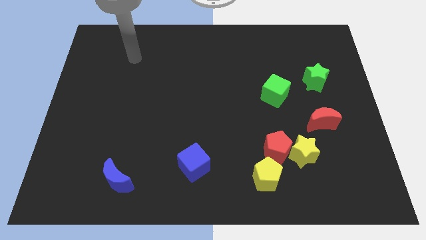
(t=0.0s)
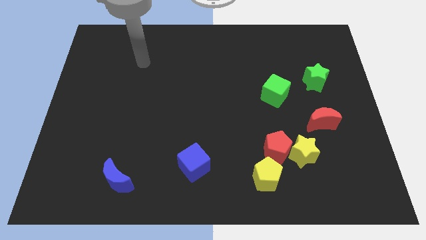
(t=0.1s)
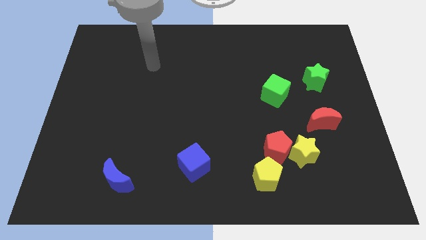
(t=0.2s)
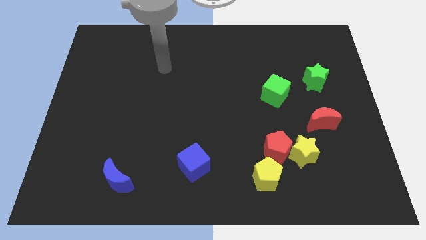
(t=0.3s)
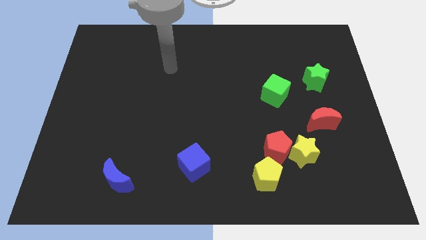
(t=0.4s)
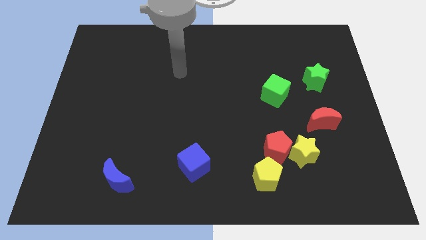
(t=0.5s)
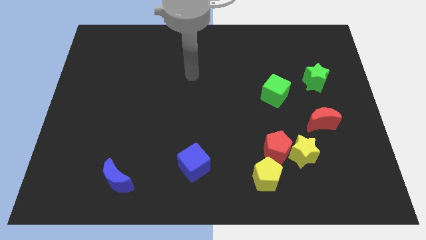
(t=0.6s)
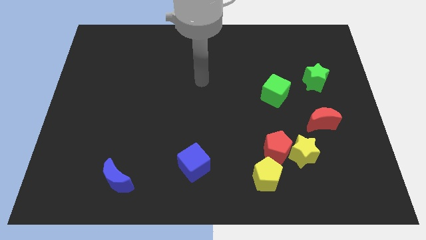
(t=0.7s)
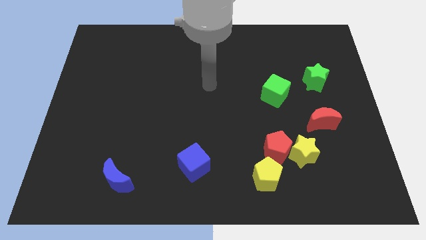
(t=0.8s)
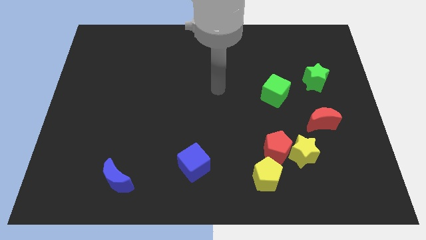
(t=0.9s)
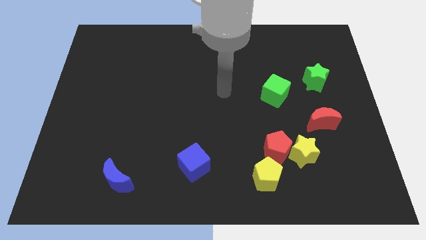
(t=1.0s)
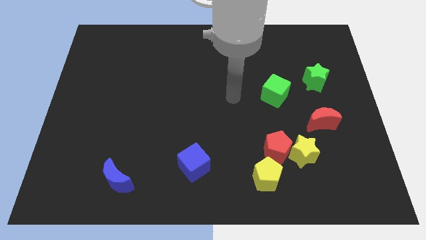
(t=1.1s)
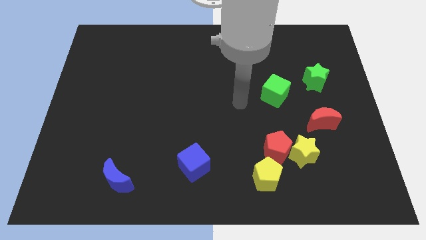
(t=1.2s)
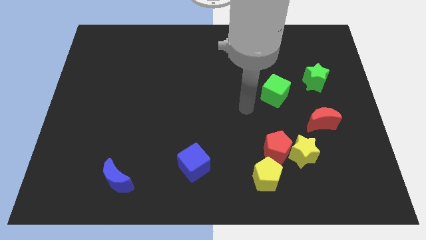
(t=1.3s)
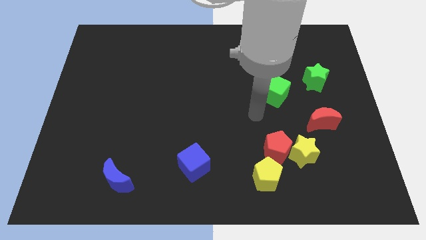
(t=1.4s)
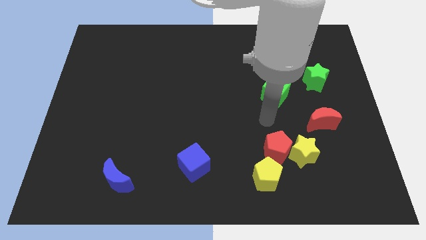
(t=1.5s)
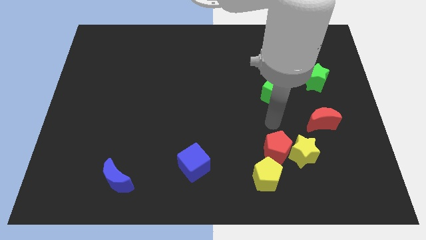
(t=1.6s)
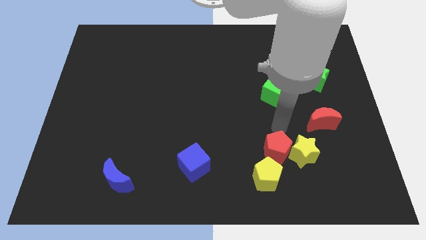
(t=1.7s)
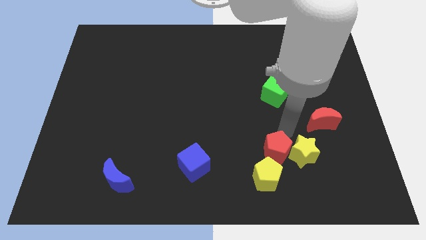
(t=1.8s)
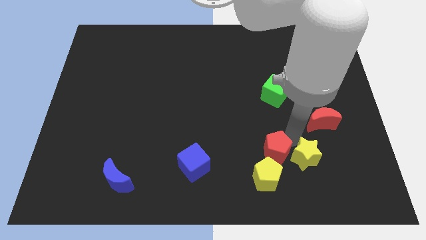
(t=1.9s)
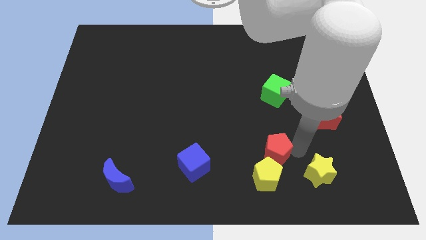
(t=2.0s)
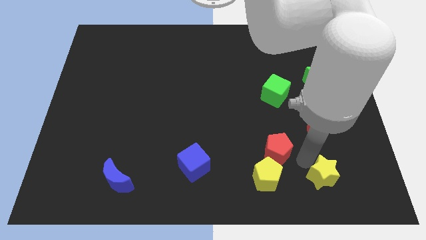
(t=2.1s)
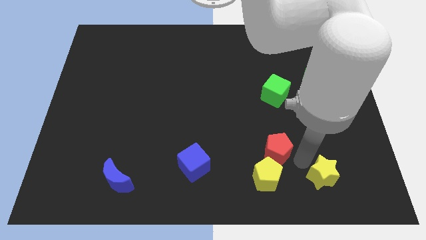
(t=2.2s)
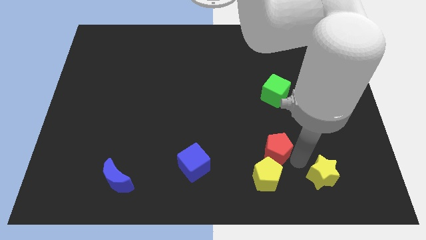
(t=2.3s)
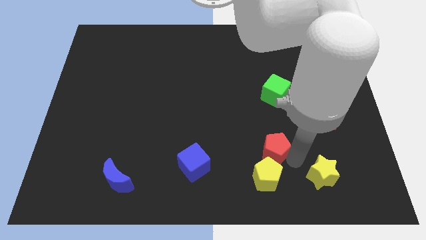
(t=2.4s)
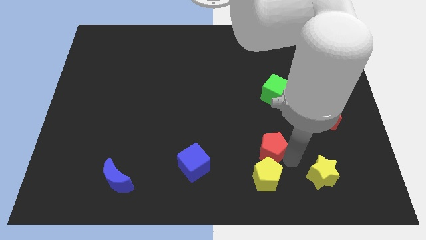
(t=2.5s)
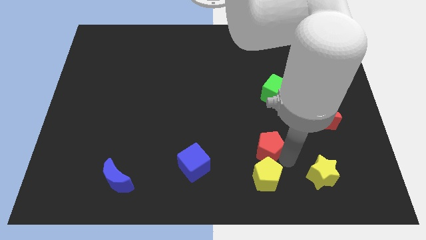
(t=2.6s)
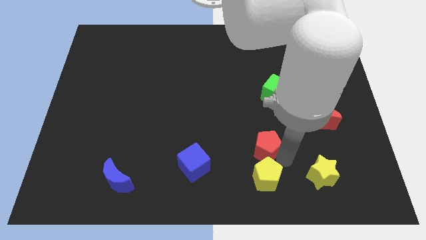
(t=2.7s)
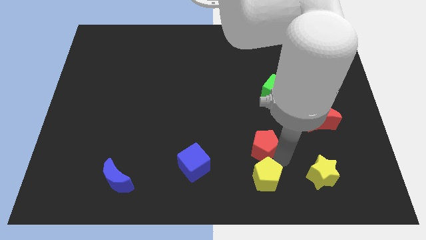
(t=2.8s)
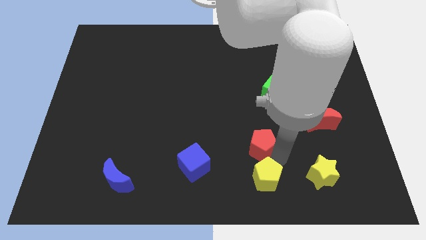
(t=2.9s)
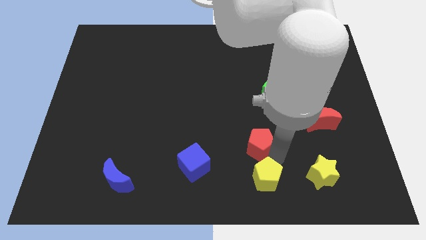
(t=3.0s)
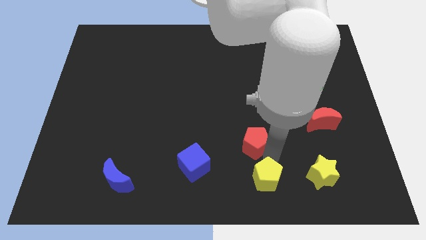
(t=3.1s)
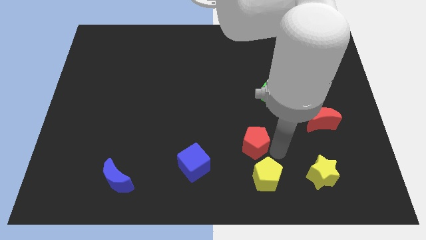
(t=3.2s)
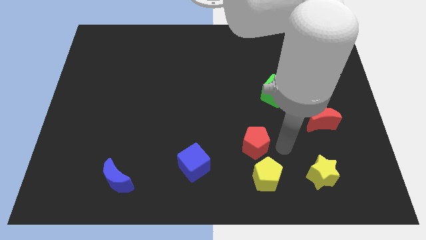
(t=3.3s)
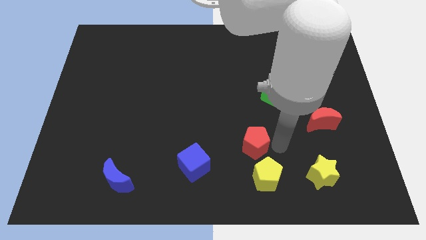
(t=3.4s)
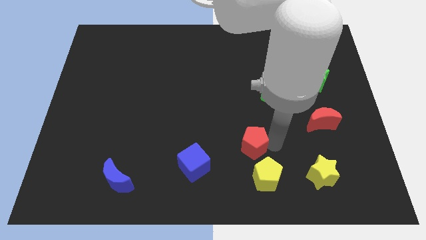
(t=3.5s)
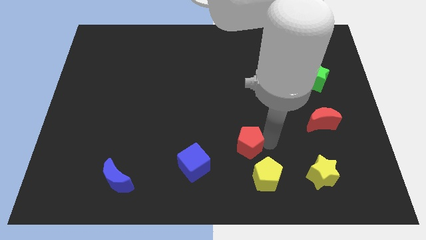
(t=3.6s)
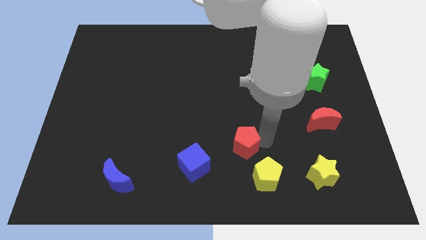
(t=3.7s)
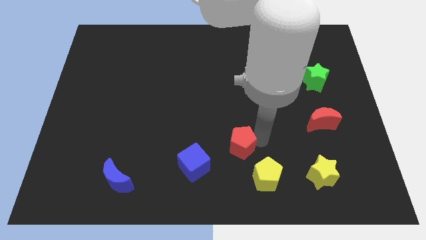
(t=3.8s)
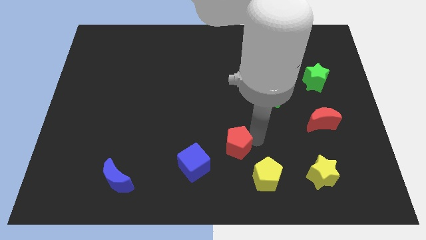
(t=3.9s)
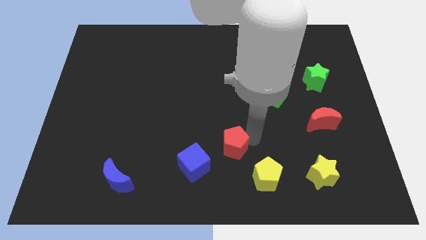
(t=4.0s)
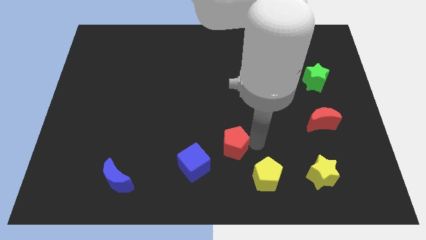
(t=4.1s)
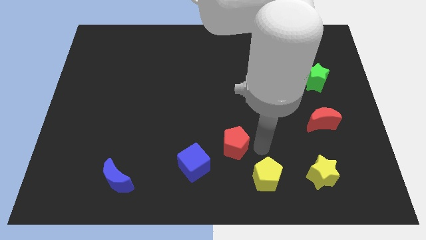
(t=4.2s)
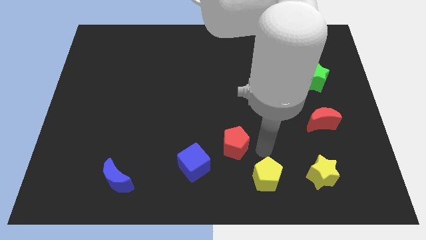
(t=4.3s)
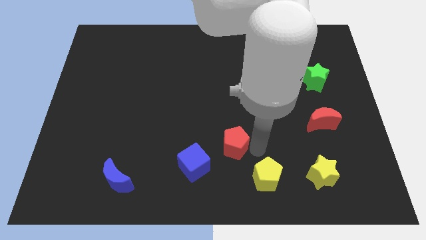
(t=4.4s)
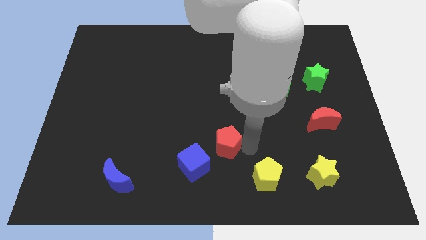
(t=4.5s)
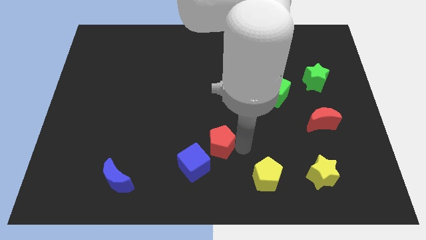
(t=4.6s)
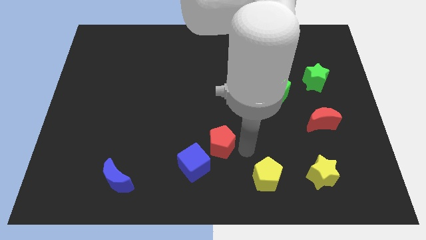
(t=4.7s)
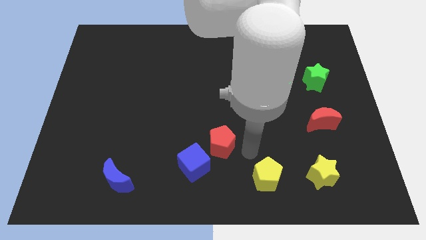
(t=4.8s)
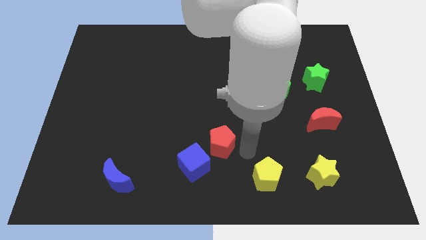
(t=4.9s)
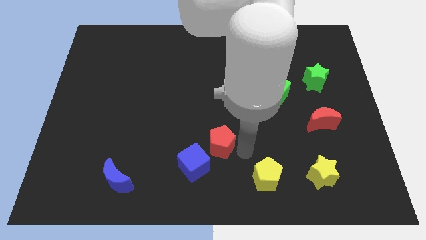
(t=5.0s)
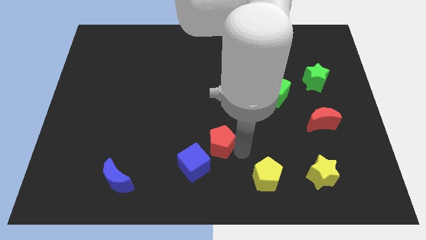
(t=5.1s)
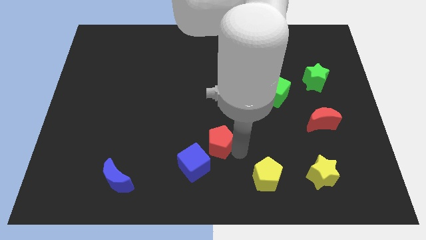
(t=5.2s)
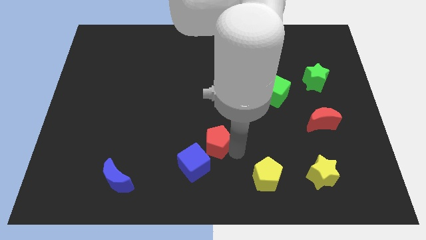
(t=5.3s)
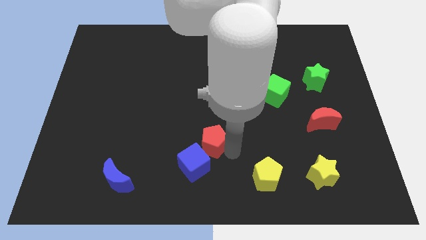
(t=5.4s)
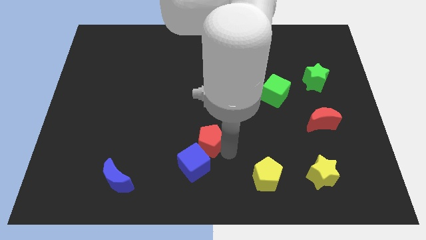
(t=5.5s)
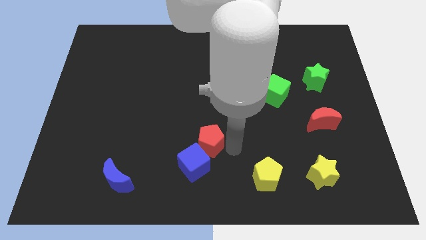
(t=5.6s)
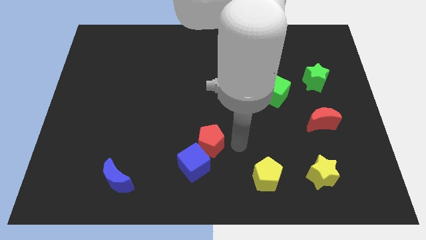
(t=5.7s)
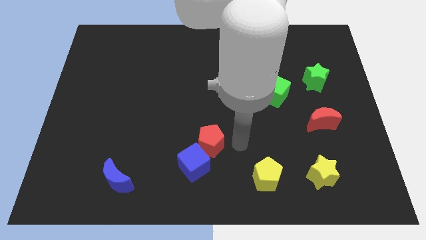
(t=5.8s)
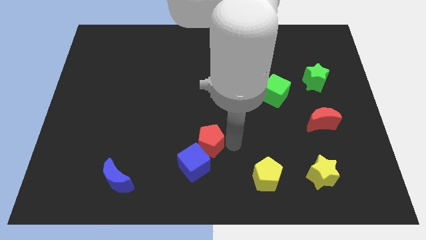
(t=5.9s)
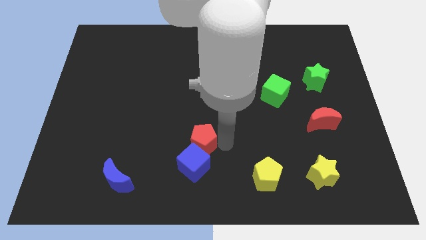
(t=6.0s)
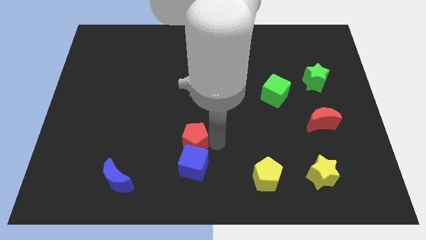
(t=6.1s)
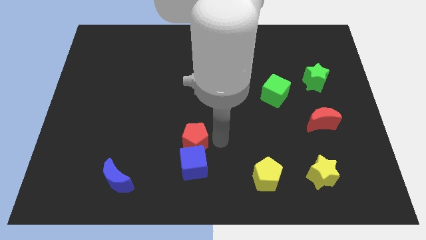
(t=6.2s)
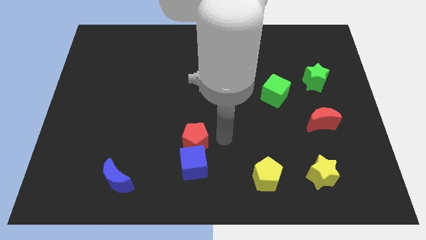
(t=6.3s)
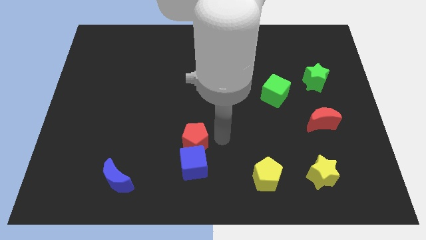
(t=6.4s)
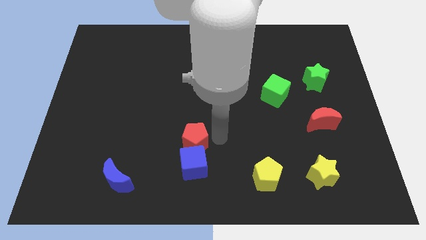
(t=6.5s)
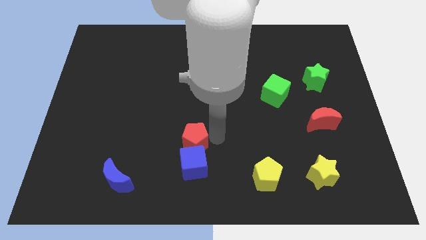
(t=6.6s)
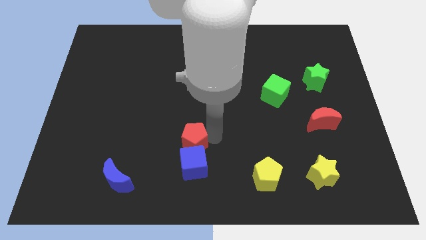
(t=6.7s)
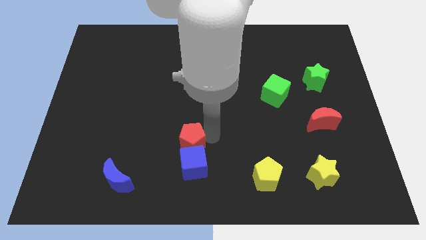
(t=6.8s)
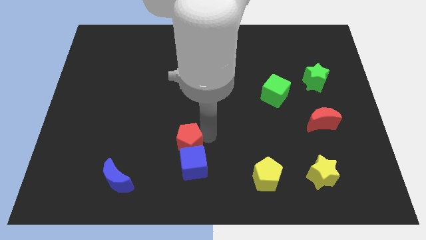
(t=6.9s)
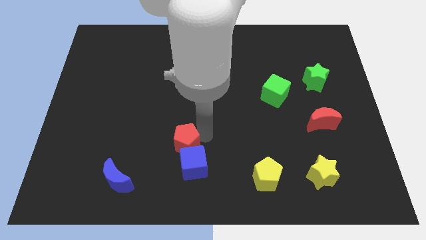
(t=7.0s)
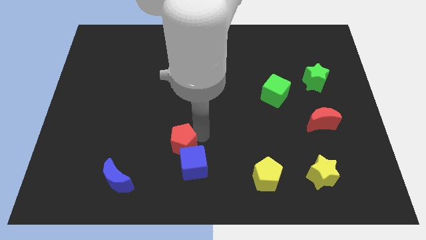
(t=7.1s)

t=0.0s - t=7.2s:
push the red pentagon to the left

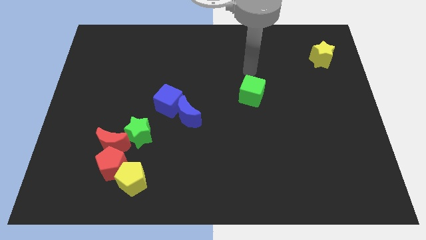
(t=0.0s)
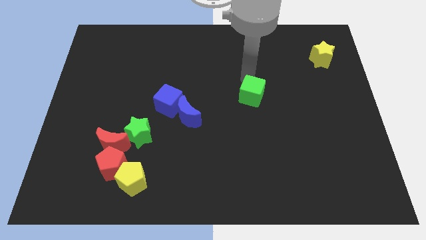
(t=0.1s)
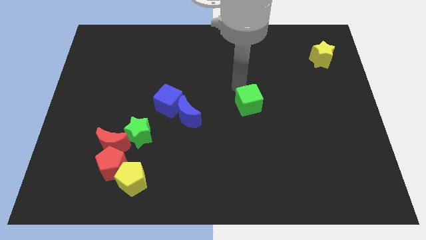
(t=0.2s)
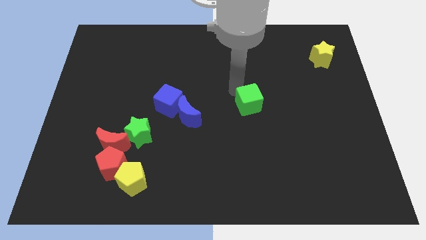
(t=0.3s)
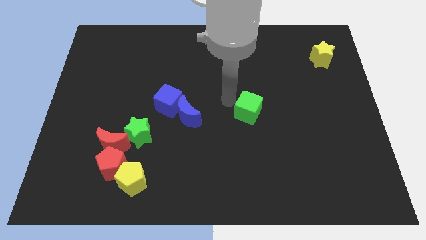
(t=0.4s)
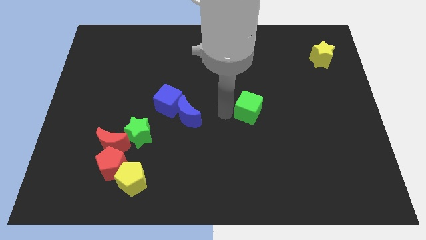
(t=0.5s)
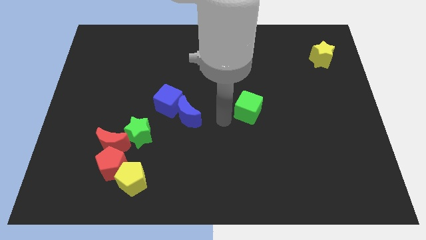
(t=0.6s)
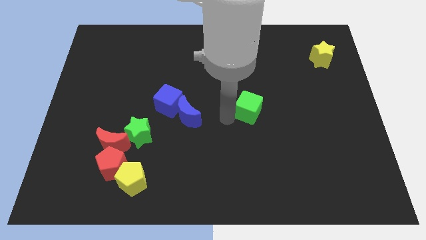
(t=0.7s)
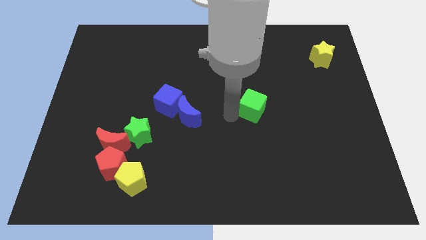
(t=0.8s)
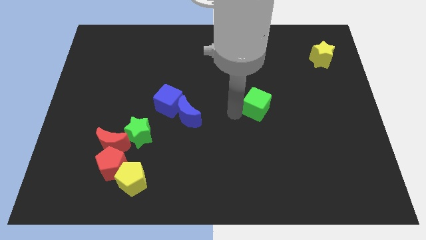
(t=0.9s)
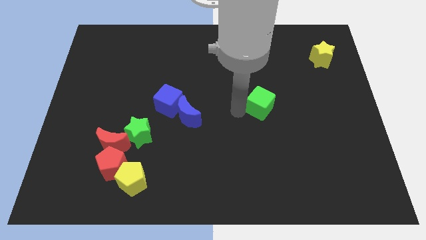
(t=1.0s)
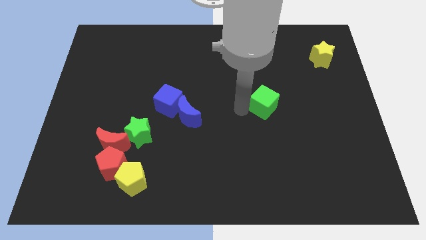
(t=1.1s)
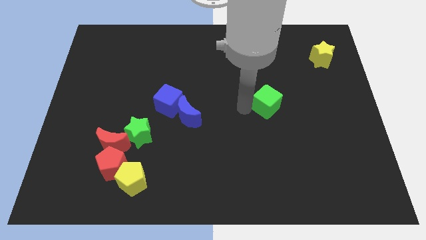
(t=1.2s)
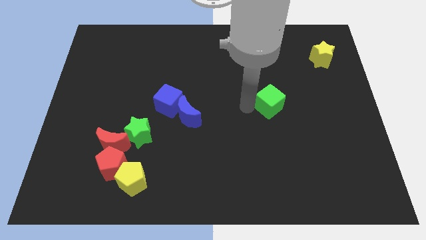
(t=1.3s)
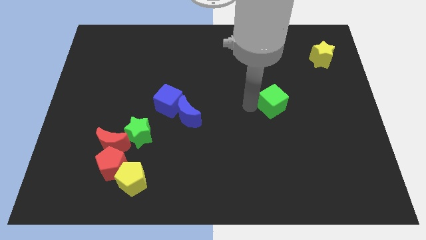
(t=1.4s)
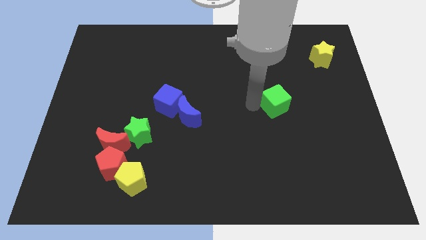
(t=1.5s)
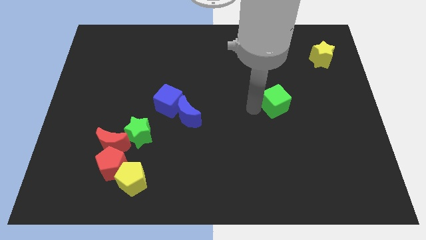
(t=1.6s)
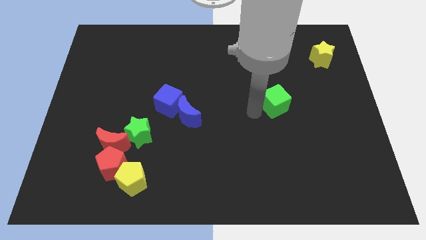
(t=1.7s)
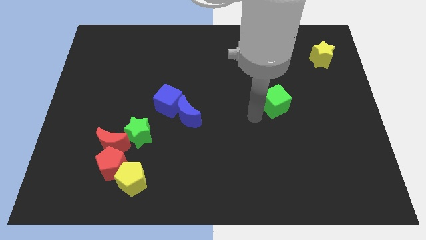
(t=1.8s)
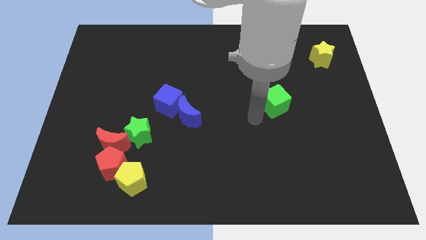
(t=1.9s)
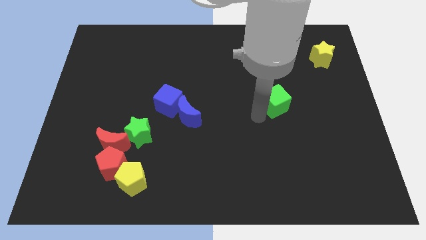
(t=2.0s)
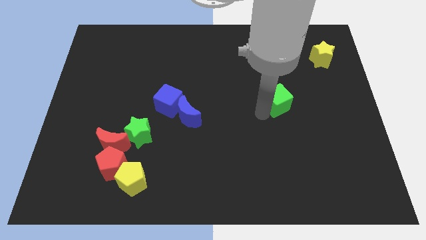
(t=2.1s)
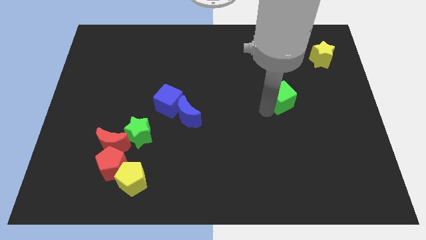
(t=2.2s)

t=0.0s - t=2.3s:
slightly slide the green cube right
